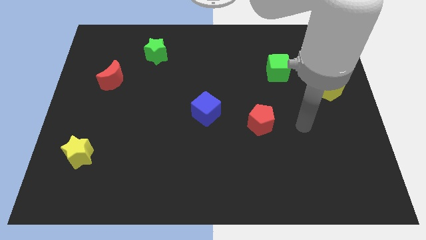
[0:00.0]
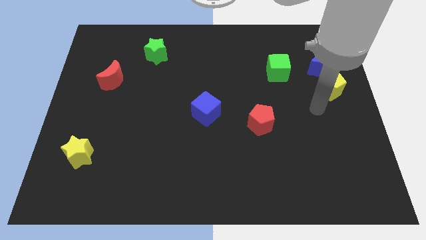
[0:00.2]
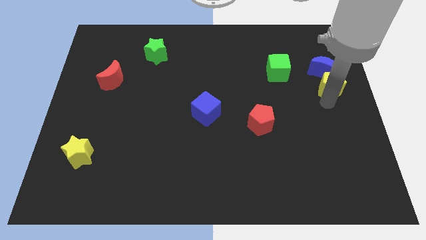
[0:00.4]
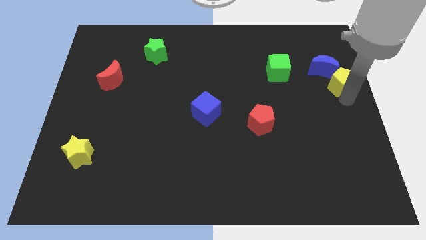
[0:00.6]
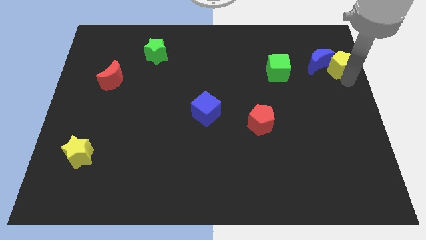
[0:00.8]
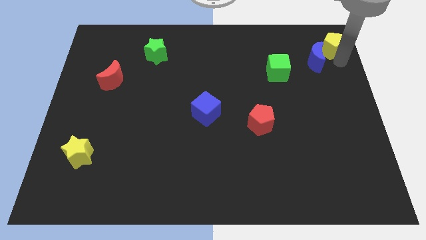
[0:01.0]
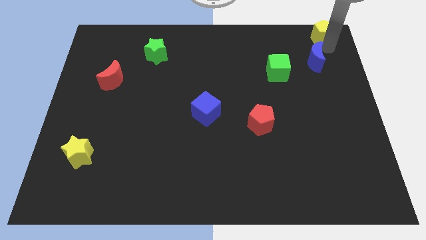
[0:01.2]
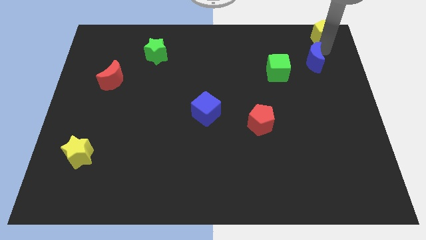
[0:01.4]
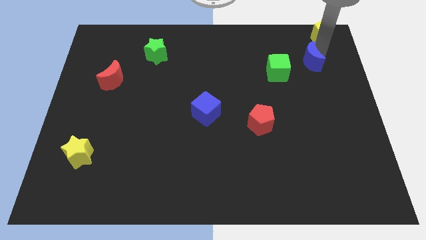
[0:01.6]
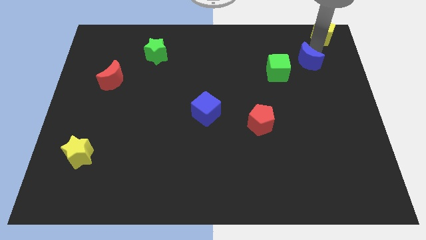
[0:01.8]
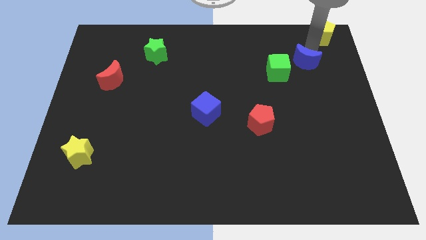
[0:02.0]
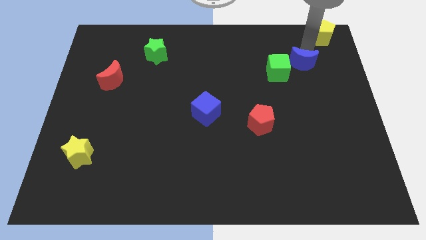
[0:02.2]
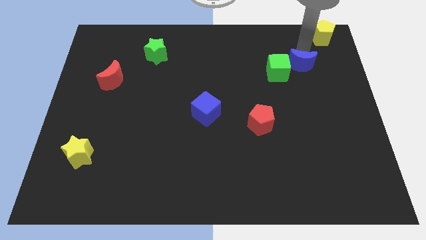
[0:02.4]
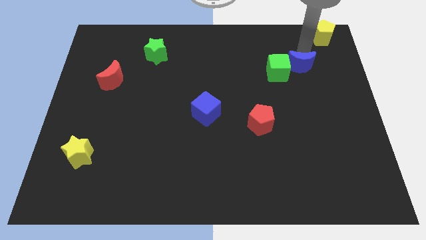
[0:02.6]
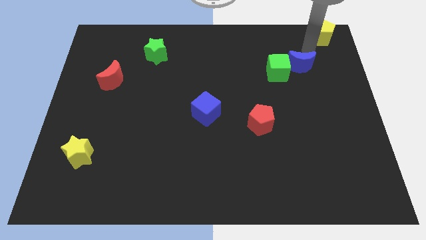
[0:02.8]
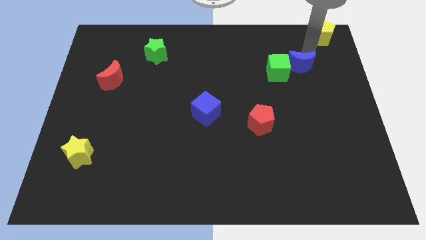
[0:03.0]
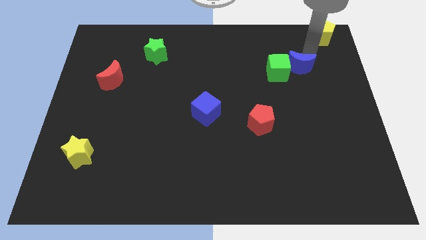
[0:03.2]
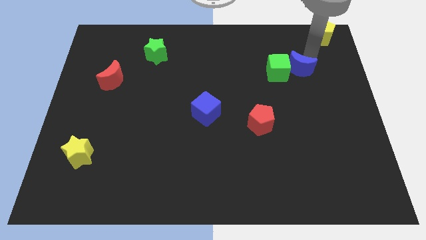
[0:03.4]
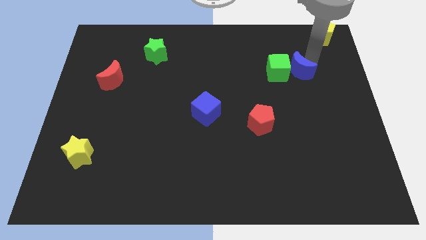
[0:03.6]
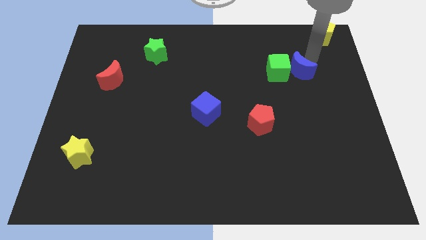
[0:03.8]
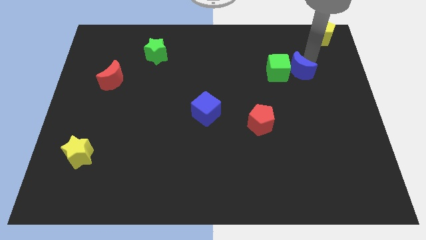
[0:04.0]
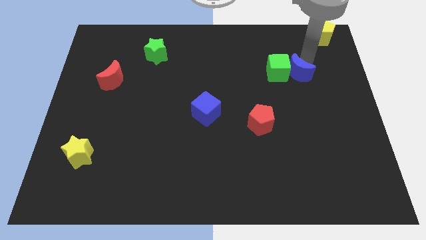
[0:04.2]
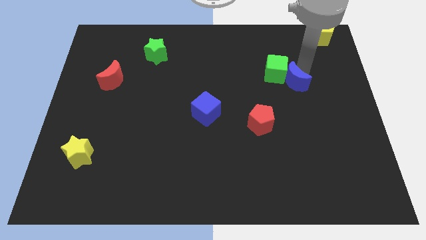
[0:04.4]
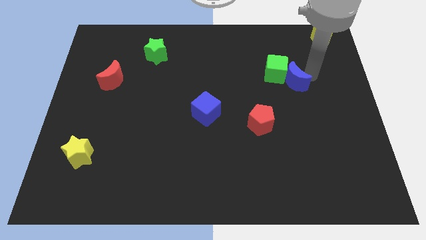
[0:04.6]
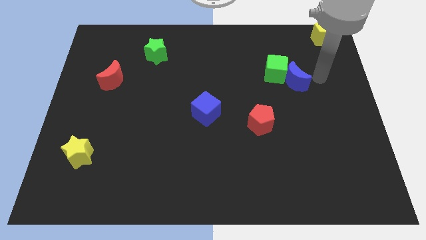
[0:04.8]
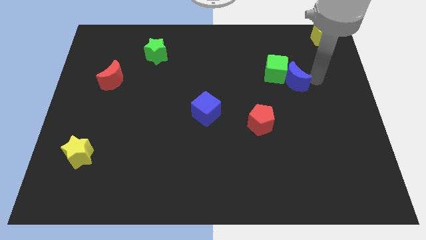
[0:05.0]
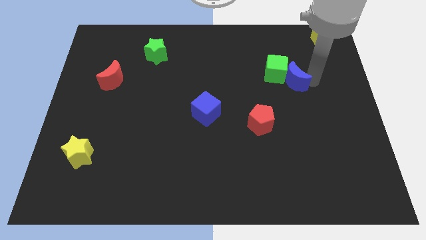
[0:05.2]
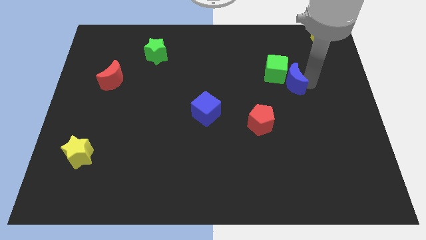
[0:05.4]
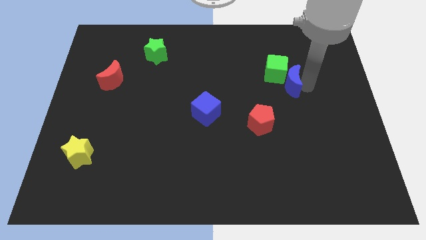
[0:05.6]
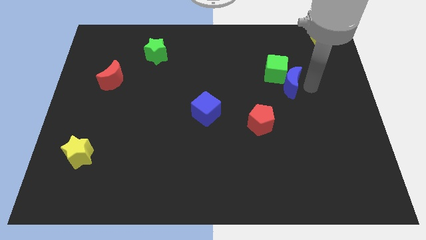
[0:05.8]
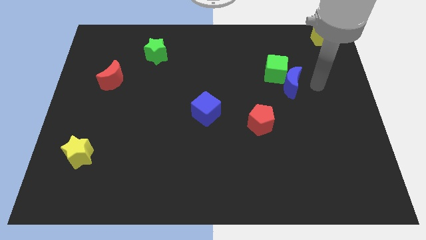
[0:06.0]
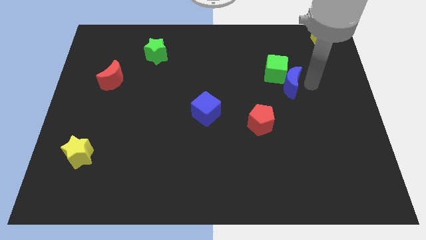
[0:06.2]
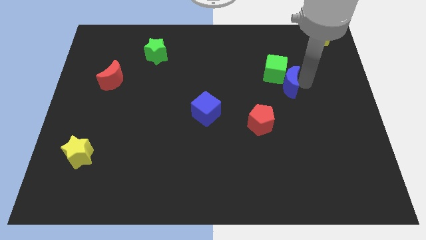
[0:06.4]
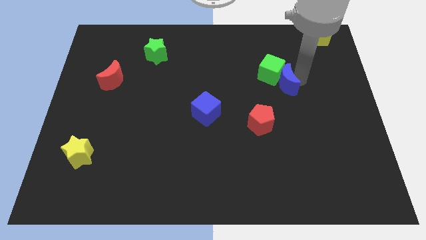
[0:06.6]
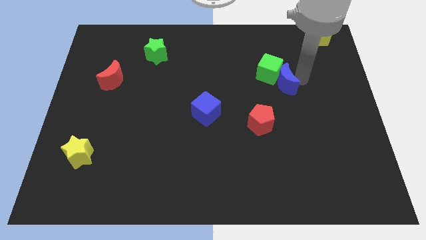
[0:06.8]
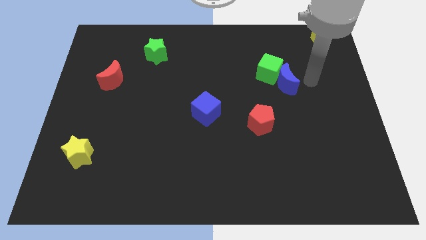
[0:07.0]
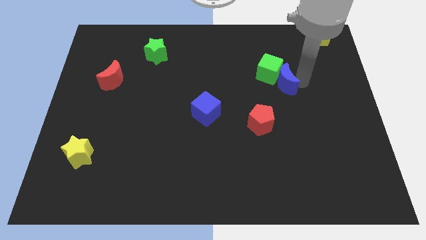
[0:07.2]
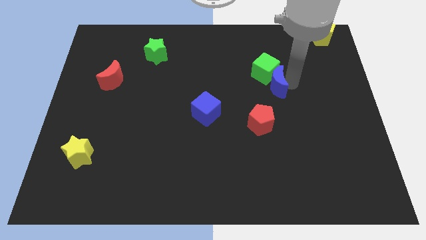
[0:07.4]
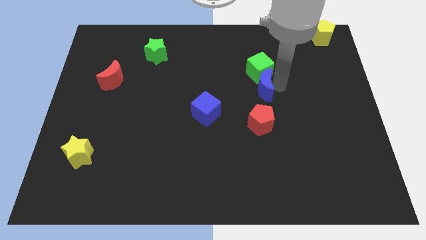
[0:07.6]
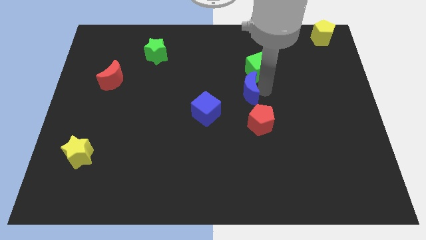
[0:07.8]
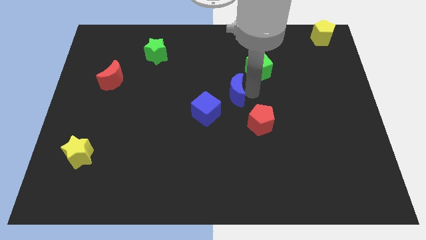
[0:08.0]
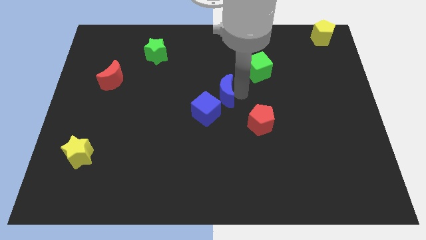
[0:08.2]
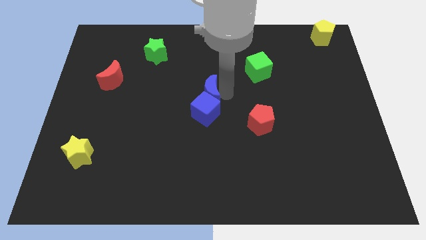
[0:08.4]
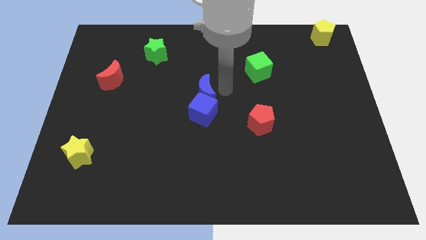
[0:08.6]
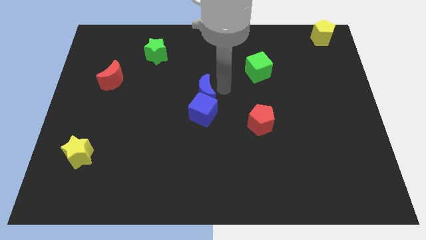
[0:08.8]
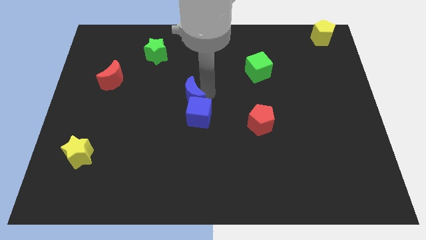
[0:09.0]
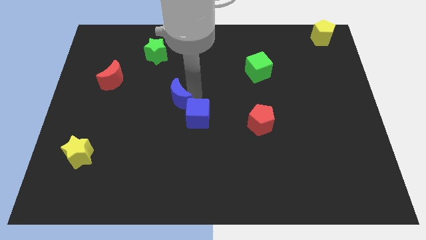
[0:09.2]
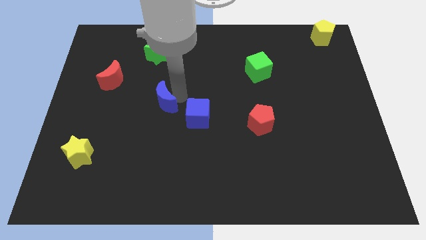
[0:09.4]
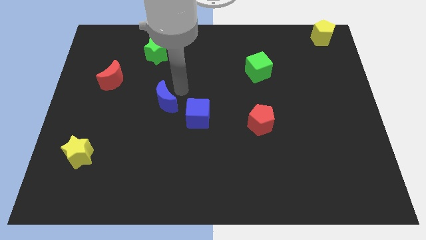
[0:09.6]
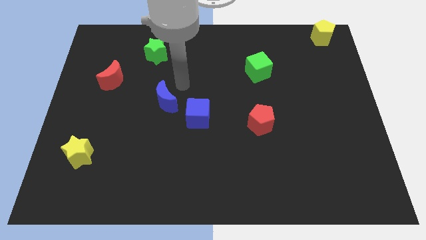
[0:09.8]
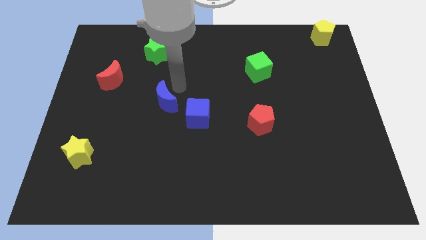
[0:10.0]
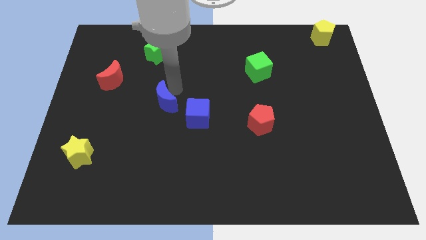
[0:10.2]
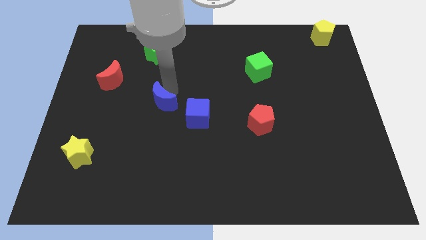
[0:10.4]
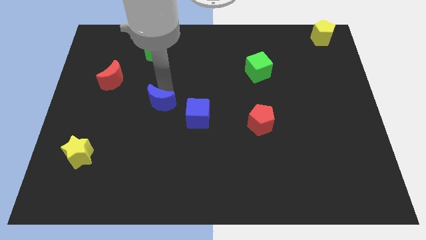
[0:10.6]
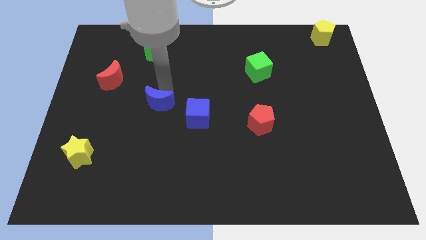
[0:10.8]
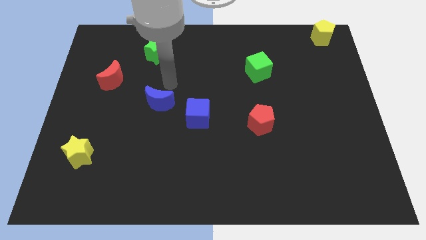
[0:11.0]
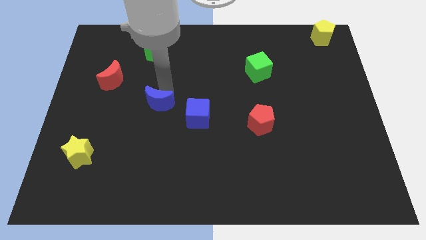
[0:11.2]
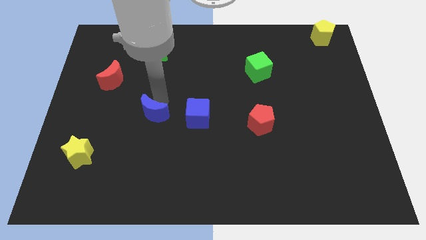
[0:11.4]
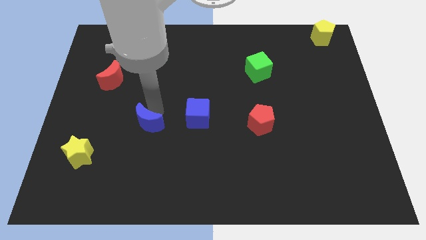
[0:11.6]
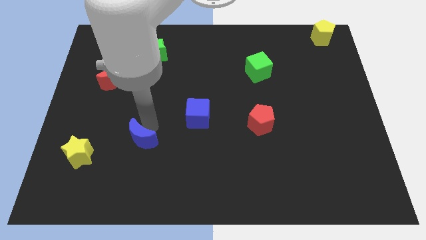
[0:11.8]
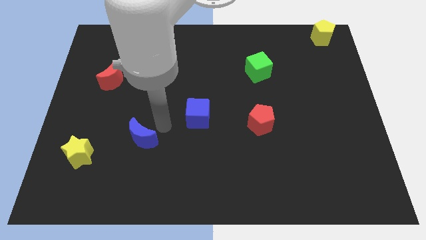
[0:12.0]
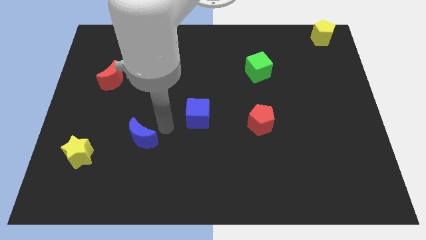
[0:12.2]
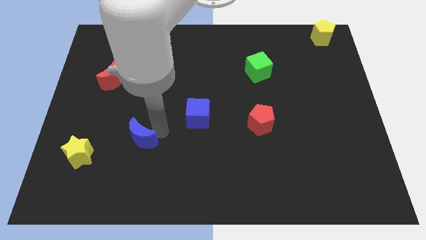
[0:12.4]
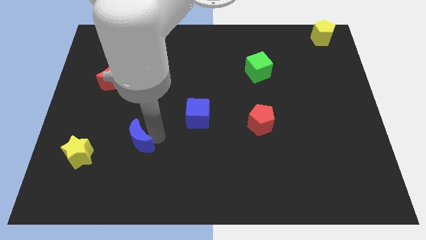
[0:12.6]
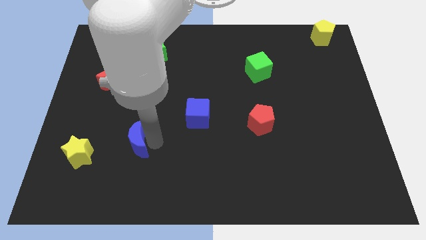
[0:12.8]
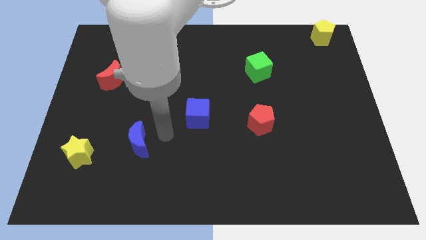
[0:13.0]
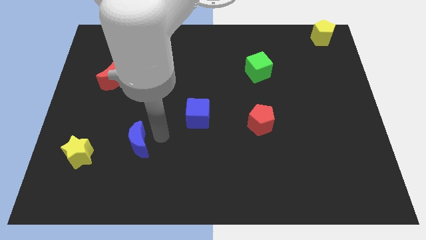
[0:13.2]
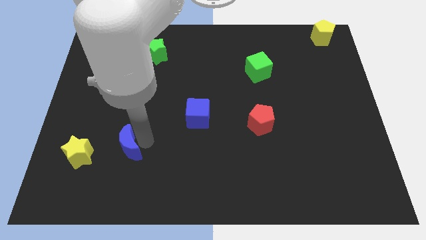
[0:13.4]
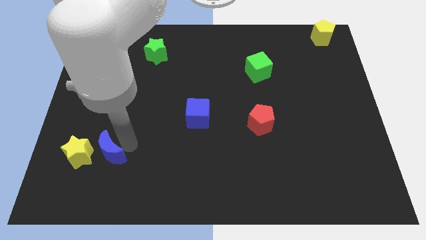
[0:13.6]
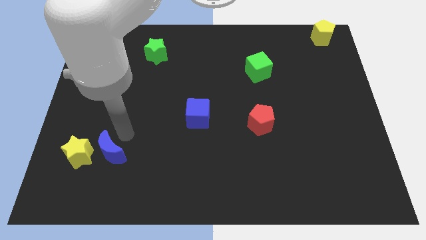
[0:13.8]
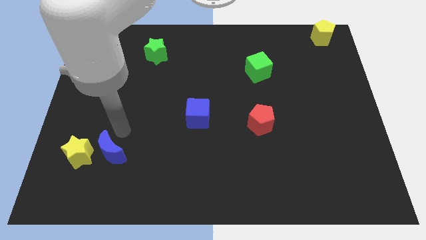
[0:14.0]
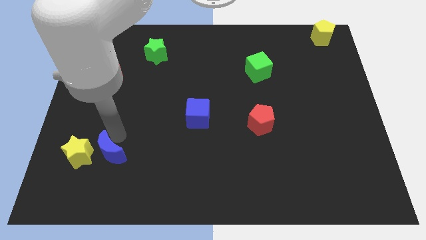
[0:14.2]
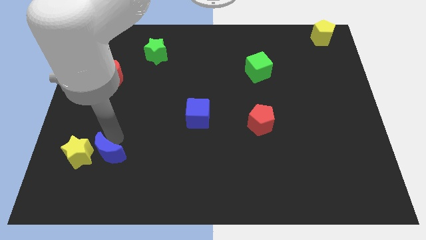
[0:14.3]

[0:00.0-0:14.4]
push the blue moon diagonally down and to the right of the yellow star

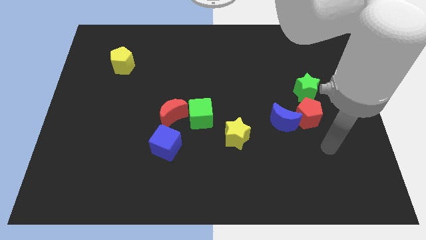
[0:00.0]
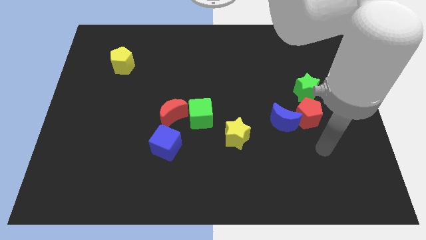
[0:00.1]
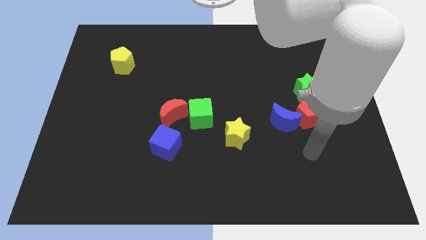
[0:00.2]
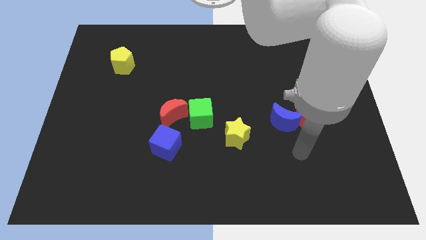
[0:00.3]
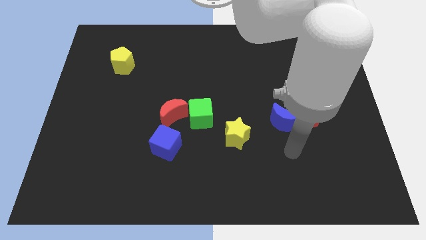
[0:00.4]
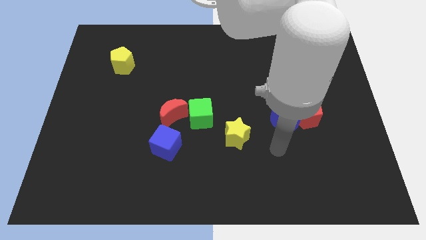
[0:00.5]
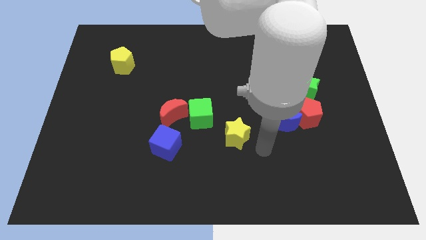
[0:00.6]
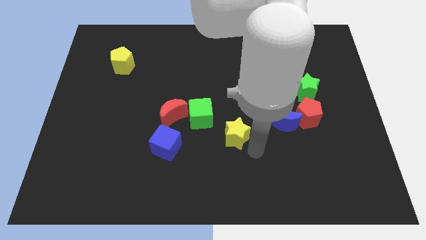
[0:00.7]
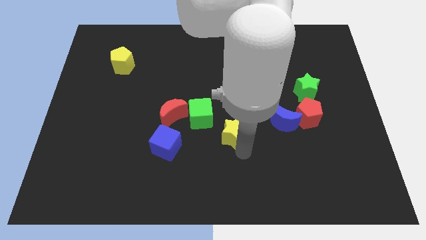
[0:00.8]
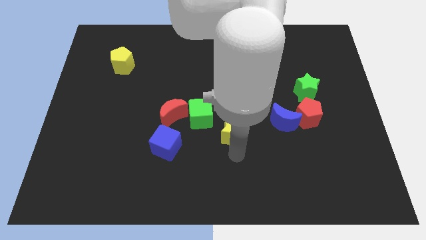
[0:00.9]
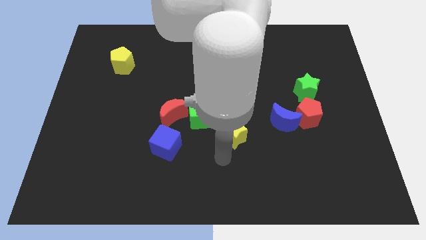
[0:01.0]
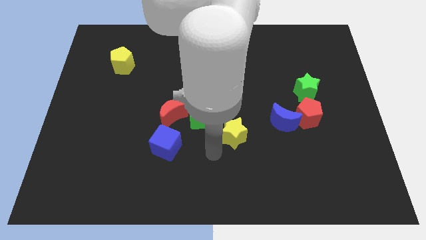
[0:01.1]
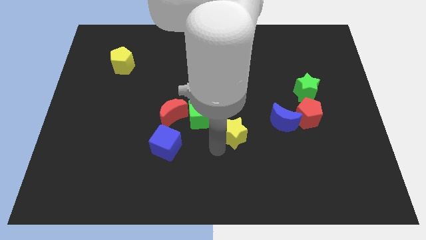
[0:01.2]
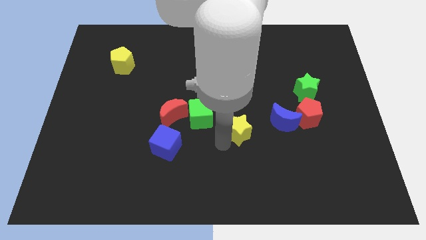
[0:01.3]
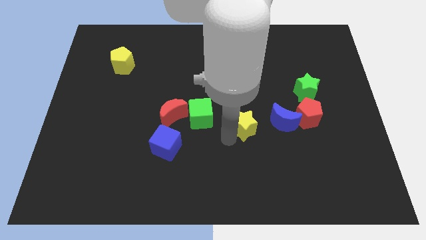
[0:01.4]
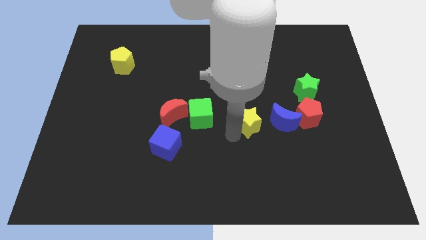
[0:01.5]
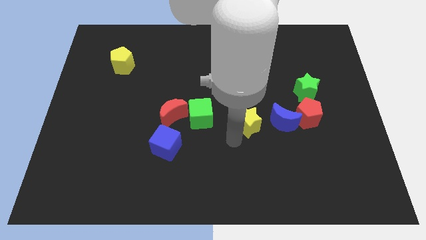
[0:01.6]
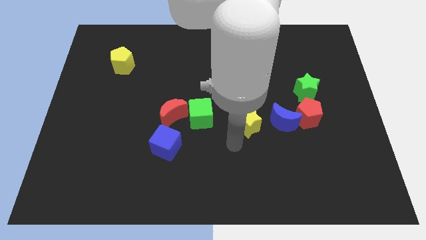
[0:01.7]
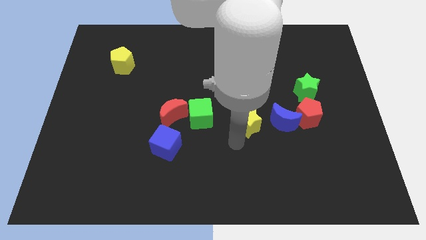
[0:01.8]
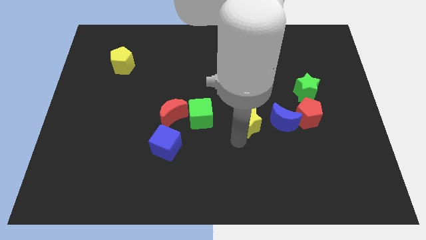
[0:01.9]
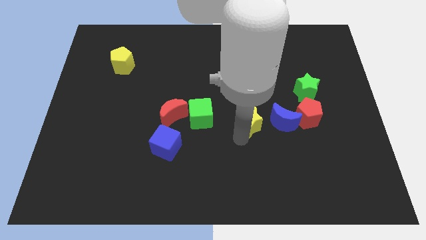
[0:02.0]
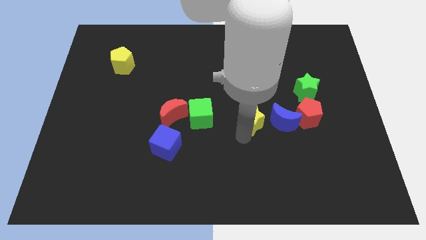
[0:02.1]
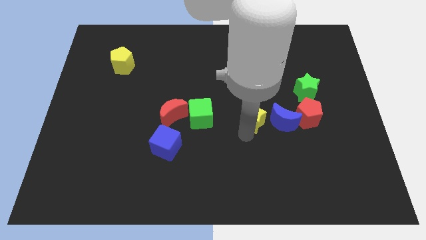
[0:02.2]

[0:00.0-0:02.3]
move the yellow star to the top left of the blue moon
